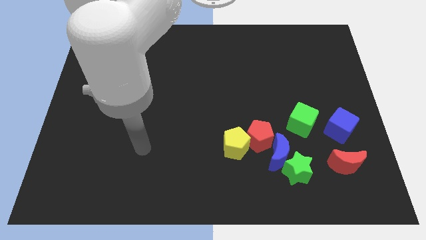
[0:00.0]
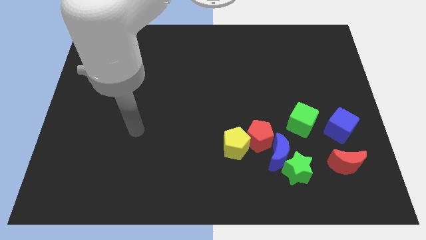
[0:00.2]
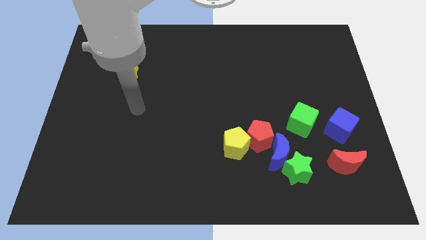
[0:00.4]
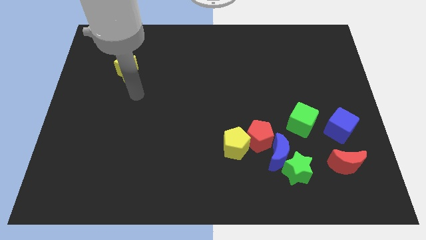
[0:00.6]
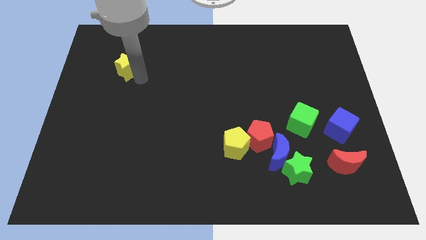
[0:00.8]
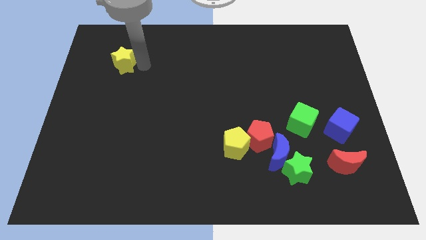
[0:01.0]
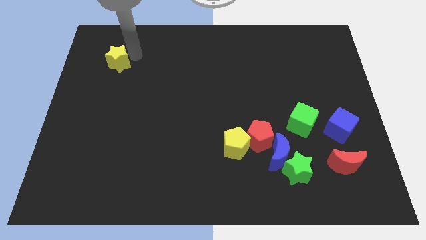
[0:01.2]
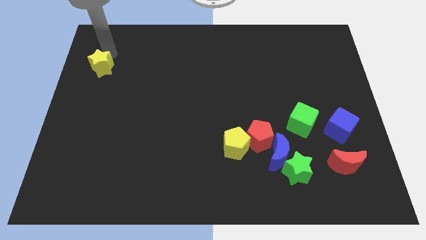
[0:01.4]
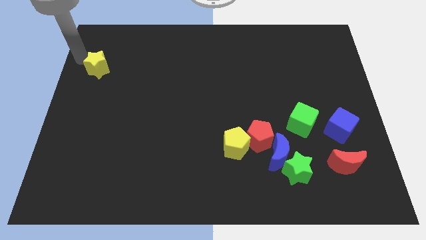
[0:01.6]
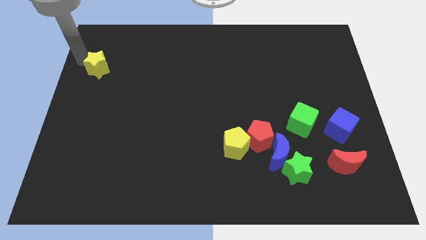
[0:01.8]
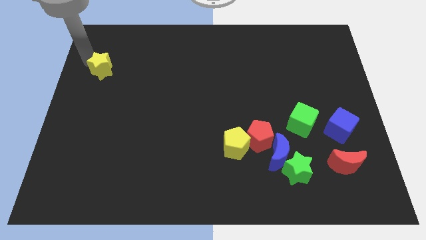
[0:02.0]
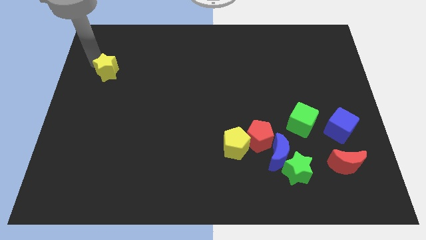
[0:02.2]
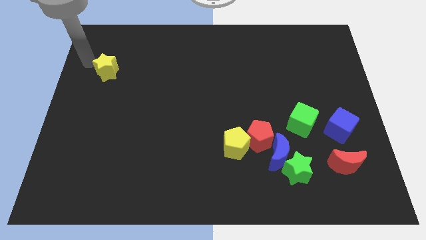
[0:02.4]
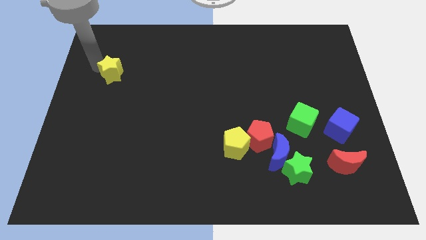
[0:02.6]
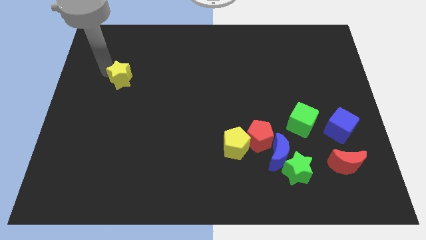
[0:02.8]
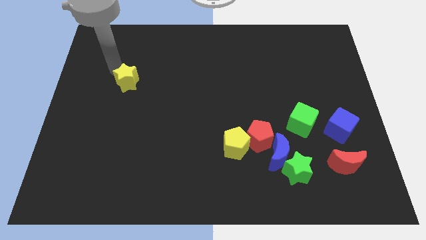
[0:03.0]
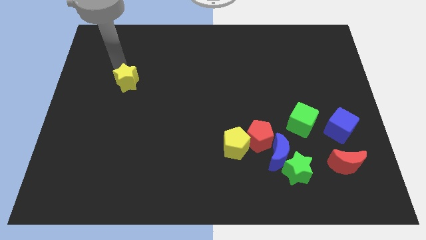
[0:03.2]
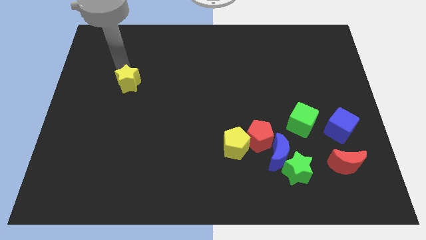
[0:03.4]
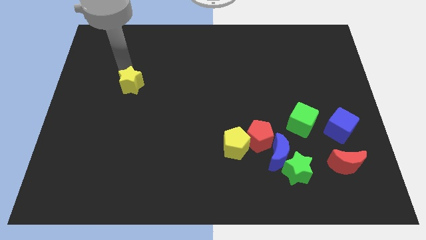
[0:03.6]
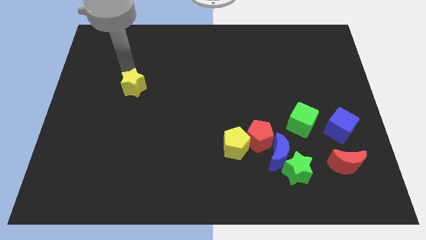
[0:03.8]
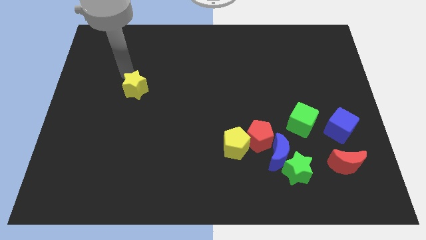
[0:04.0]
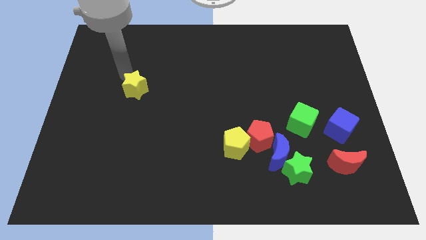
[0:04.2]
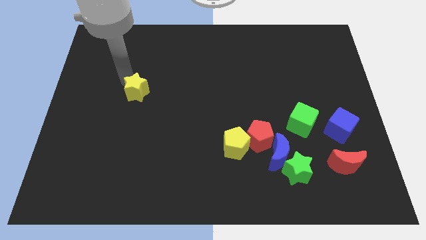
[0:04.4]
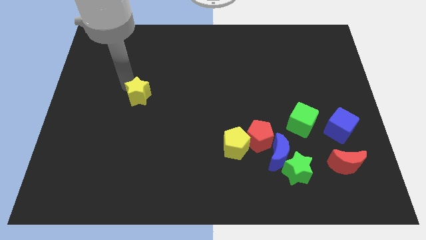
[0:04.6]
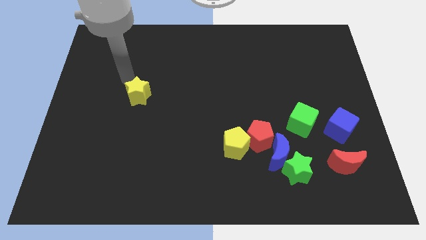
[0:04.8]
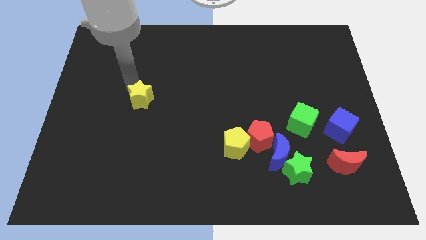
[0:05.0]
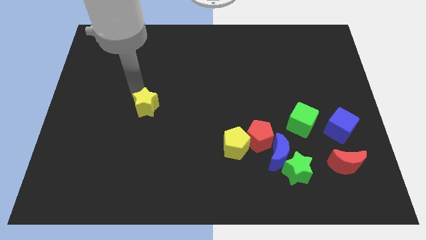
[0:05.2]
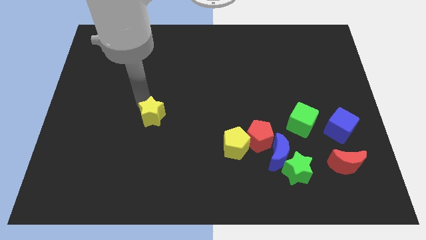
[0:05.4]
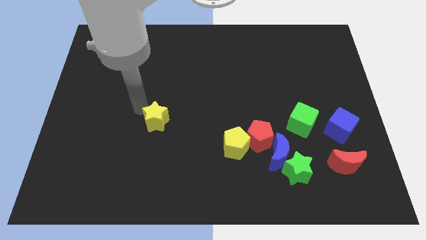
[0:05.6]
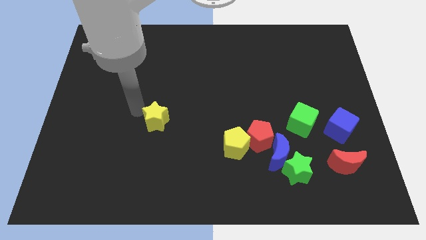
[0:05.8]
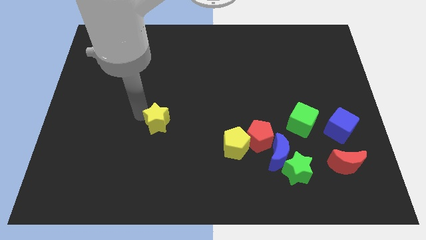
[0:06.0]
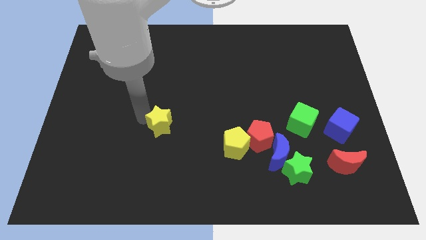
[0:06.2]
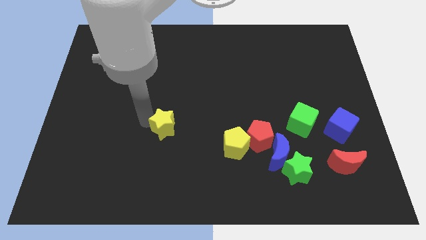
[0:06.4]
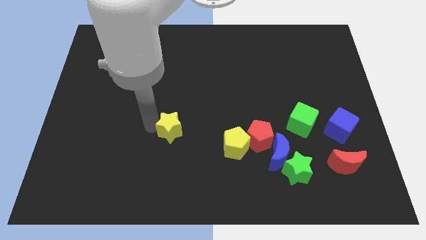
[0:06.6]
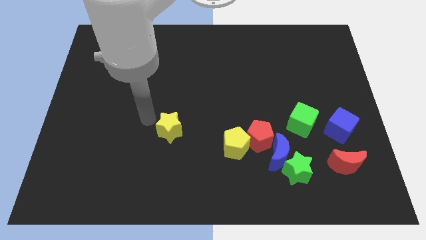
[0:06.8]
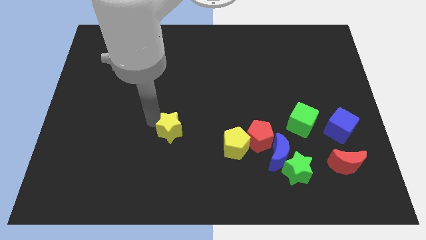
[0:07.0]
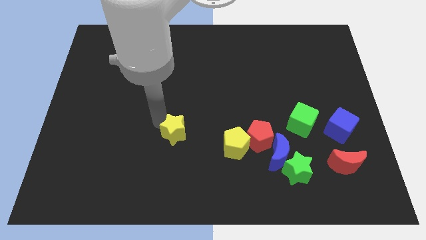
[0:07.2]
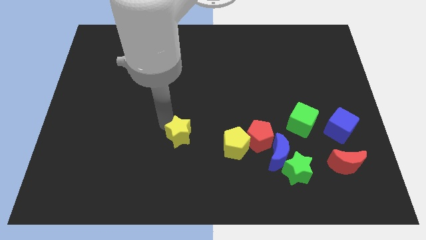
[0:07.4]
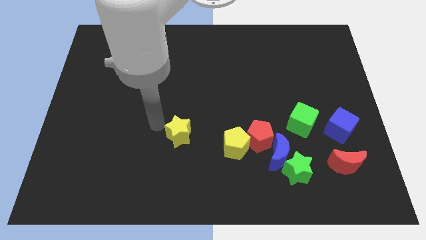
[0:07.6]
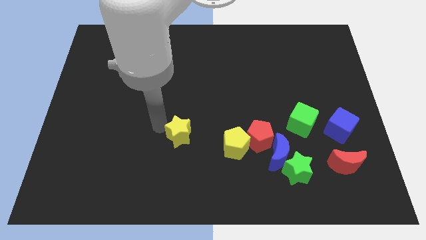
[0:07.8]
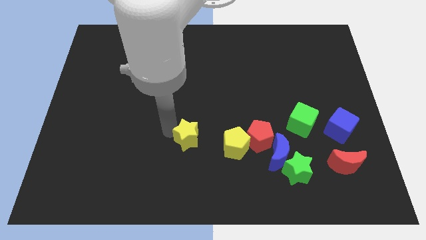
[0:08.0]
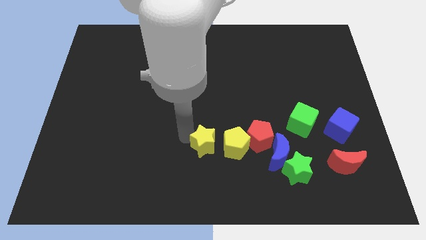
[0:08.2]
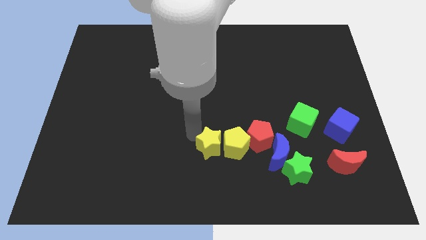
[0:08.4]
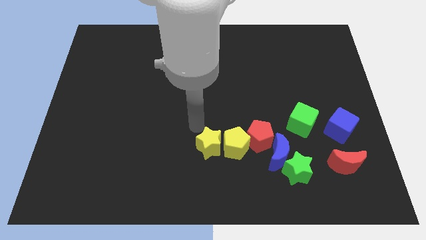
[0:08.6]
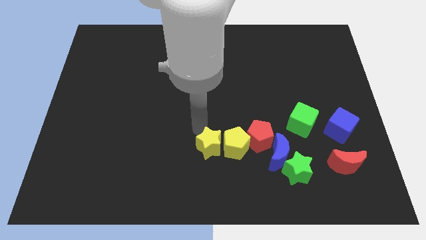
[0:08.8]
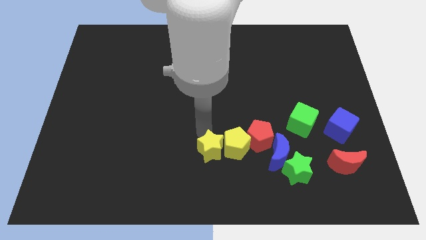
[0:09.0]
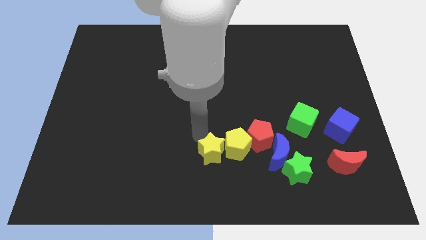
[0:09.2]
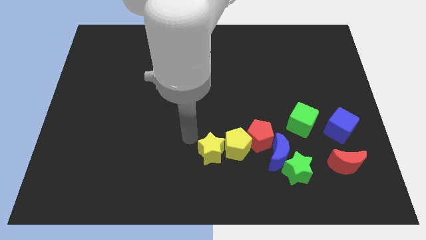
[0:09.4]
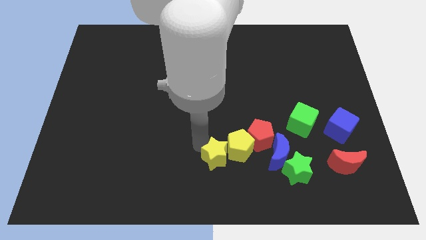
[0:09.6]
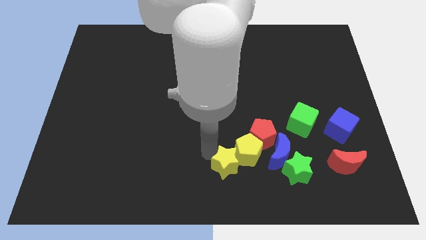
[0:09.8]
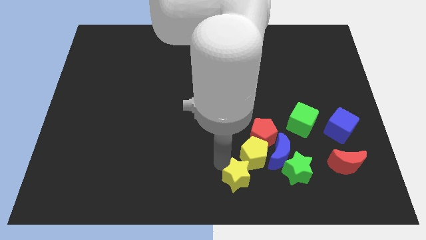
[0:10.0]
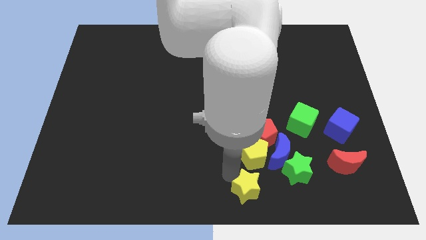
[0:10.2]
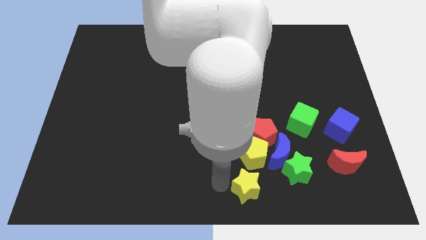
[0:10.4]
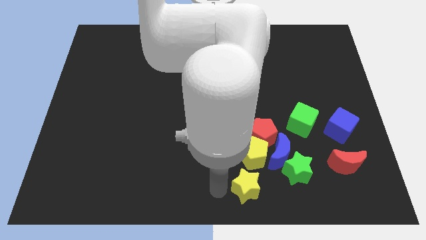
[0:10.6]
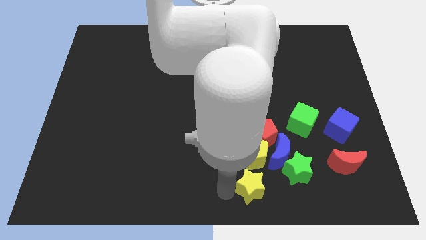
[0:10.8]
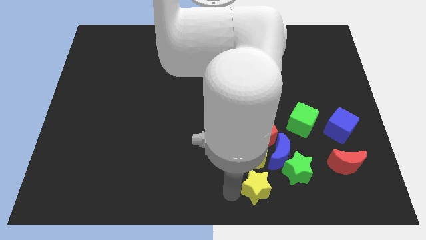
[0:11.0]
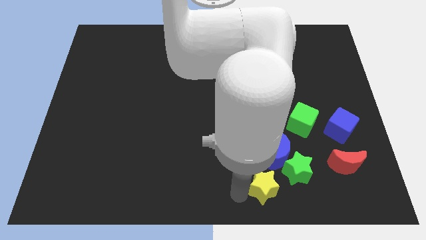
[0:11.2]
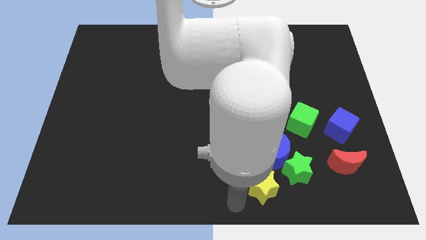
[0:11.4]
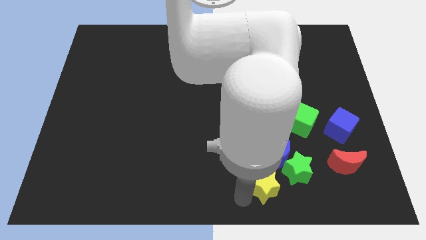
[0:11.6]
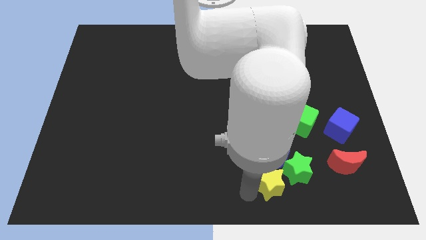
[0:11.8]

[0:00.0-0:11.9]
move the yellow star close to the green star
